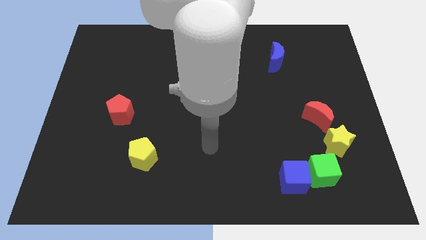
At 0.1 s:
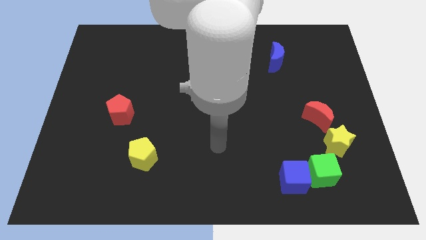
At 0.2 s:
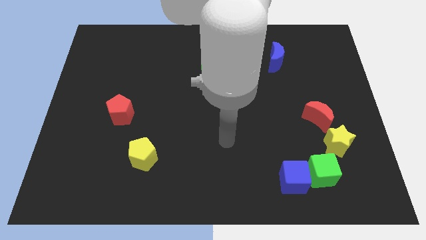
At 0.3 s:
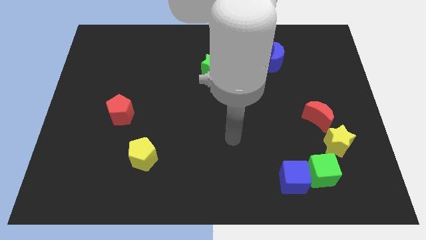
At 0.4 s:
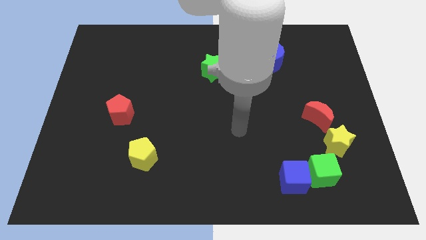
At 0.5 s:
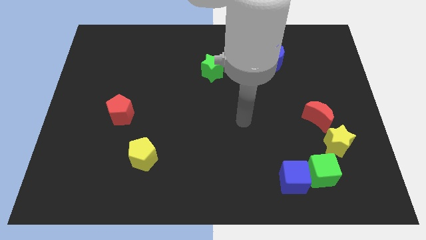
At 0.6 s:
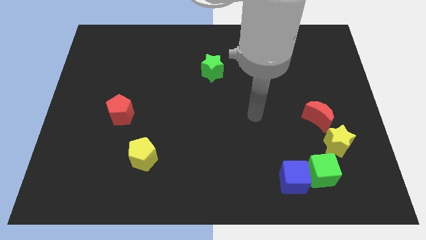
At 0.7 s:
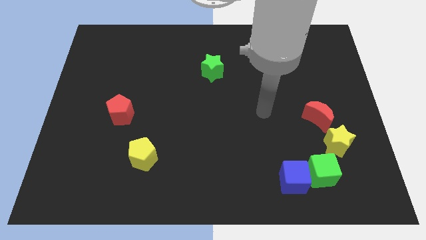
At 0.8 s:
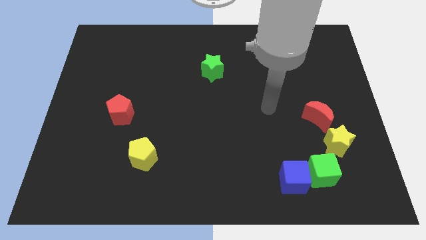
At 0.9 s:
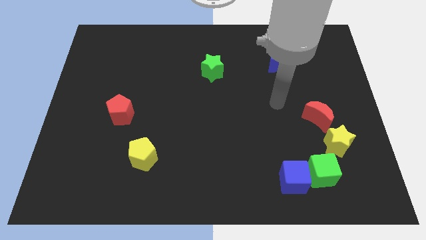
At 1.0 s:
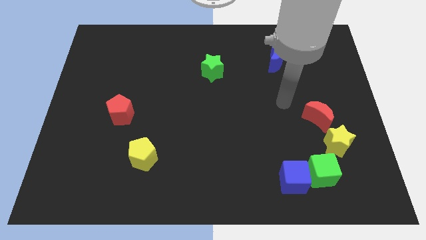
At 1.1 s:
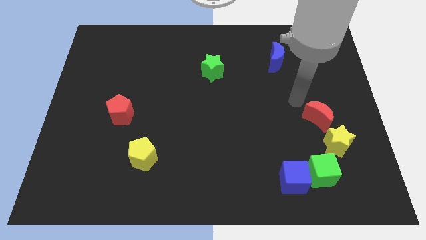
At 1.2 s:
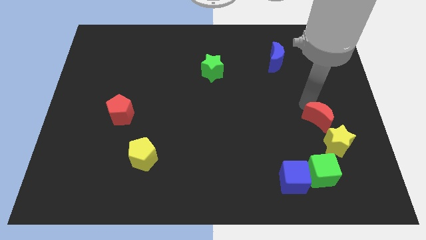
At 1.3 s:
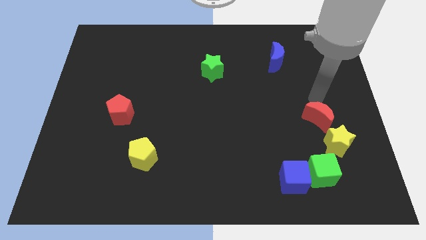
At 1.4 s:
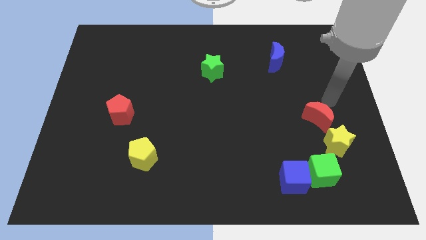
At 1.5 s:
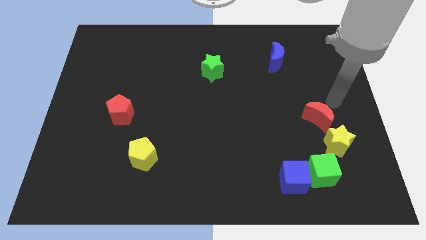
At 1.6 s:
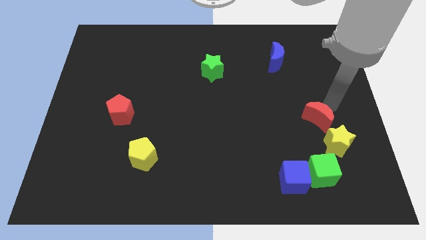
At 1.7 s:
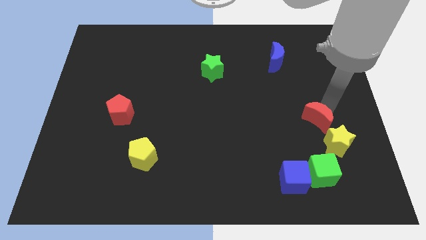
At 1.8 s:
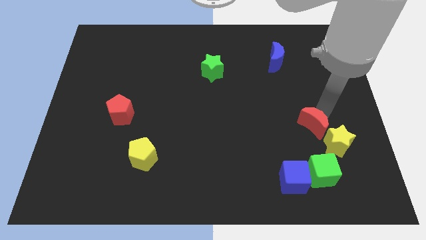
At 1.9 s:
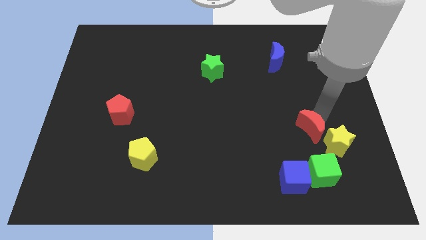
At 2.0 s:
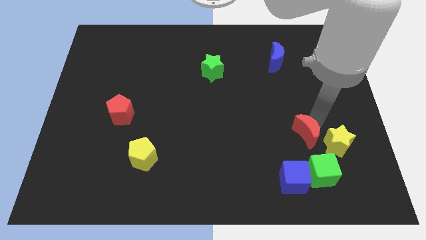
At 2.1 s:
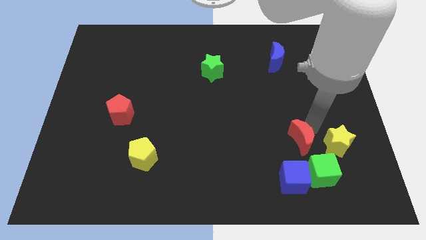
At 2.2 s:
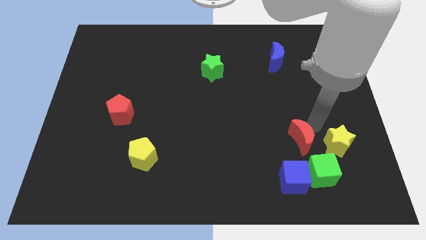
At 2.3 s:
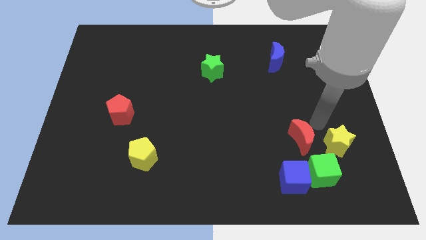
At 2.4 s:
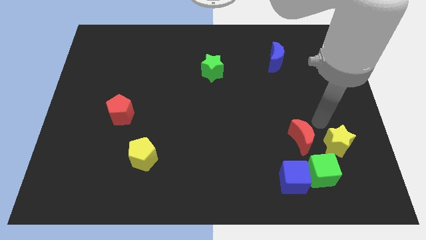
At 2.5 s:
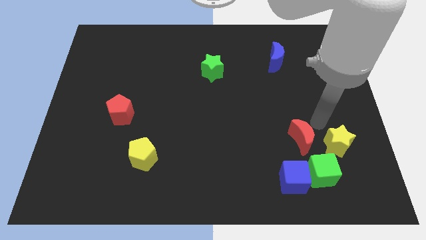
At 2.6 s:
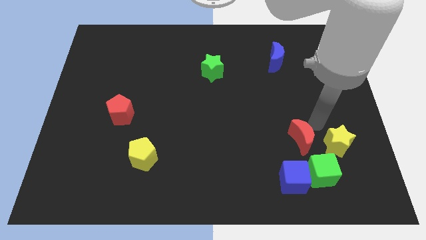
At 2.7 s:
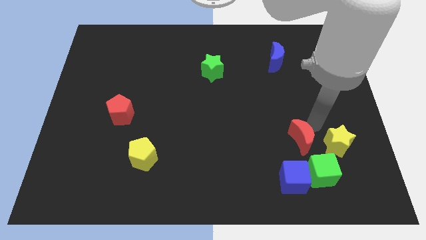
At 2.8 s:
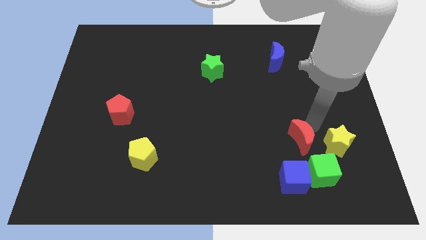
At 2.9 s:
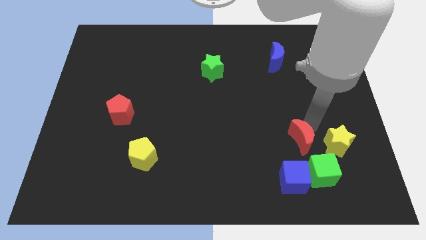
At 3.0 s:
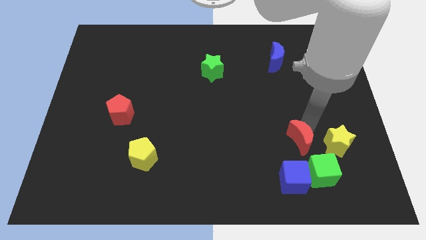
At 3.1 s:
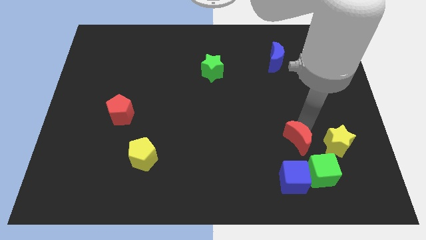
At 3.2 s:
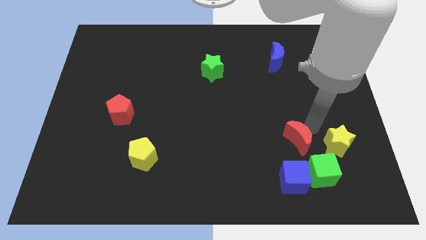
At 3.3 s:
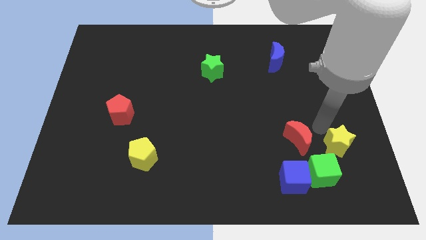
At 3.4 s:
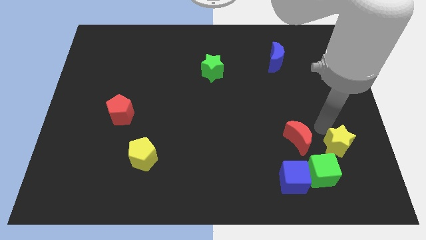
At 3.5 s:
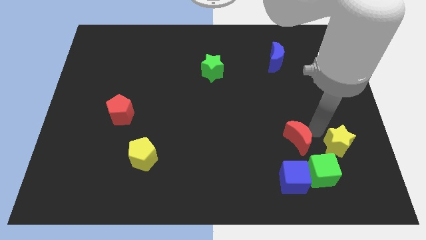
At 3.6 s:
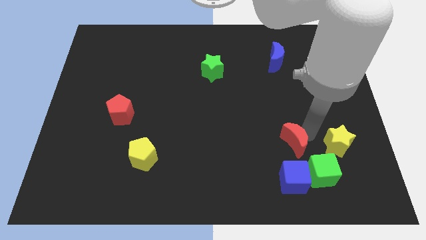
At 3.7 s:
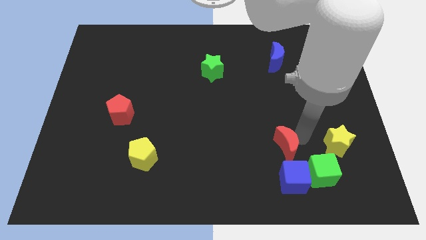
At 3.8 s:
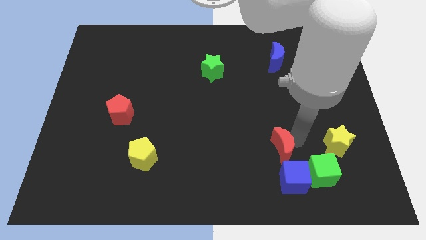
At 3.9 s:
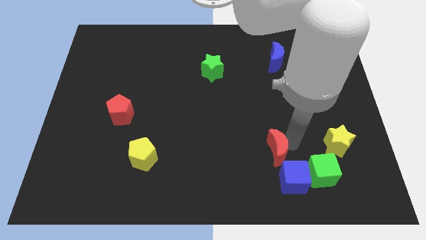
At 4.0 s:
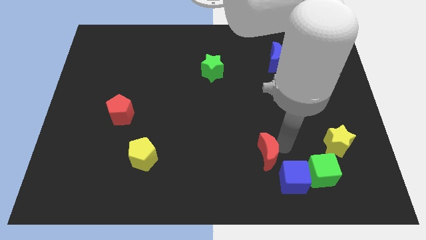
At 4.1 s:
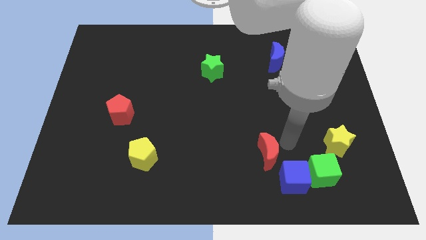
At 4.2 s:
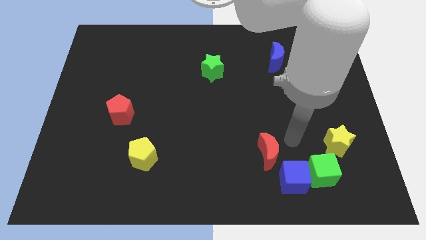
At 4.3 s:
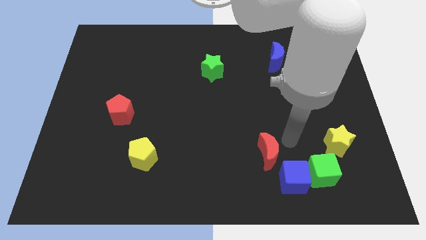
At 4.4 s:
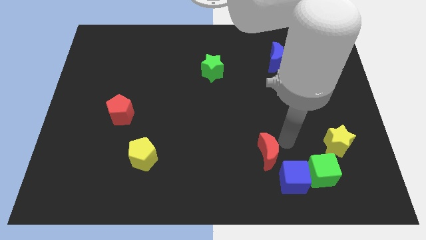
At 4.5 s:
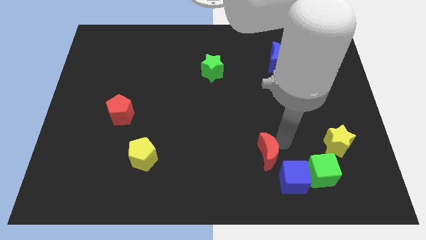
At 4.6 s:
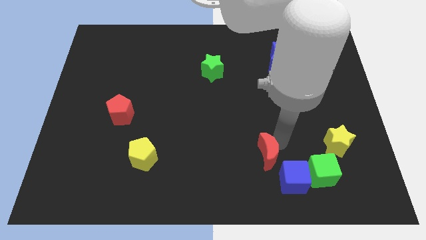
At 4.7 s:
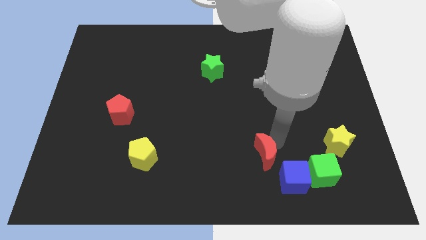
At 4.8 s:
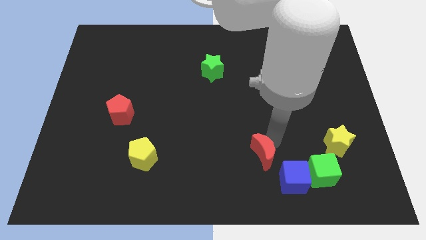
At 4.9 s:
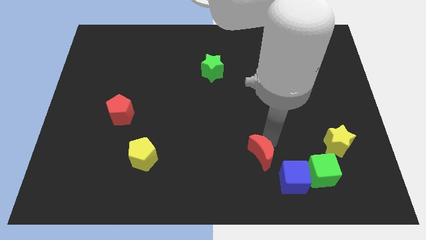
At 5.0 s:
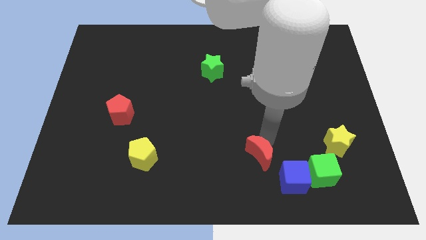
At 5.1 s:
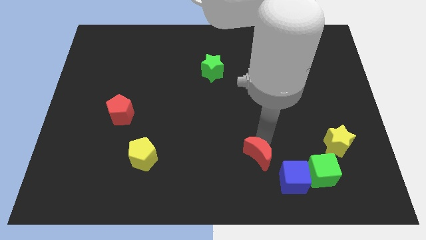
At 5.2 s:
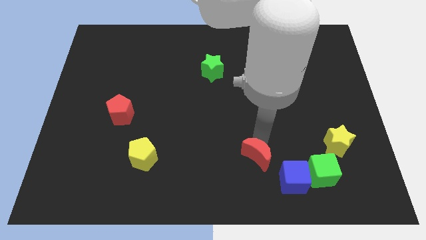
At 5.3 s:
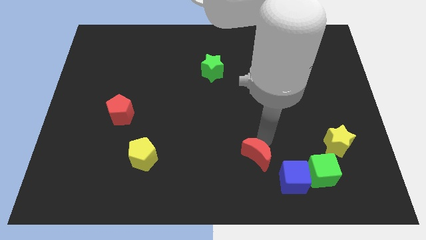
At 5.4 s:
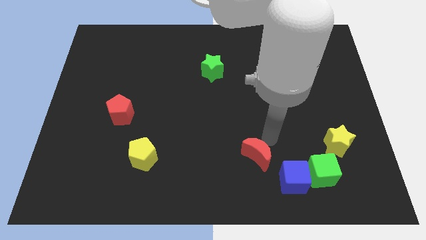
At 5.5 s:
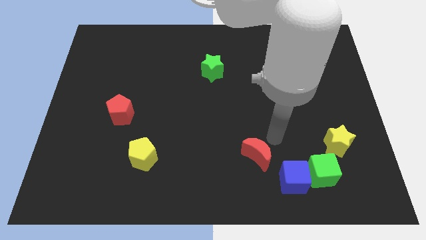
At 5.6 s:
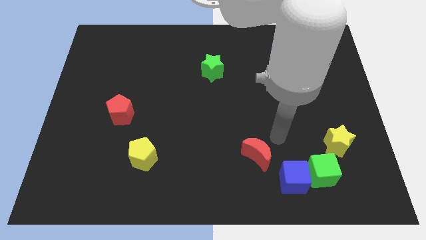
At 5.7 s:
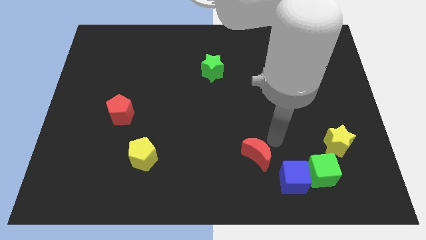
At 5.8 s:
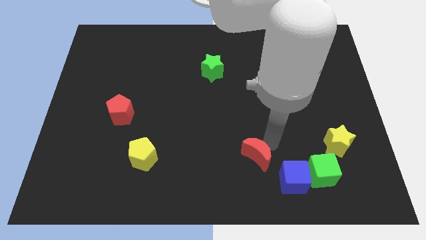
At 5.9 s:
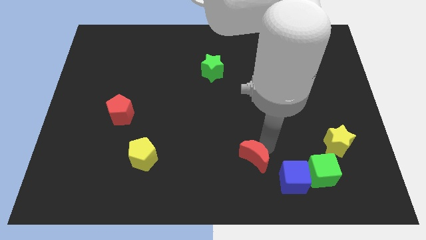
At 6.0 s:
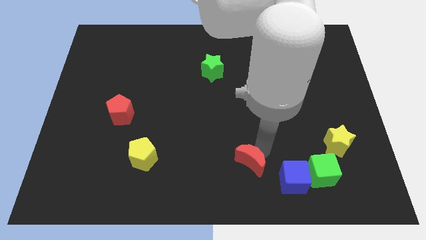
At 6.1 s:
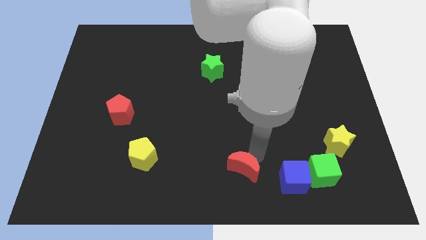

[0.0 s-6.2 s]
push the red moon to the bottom side
